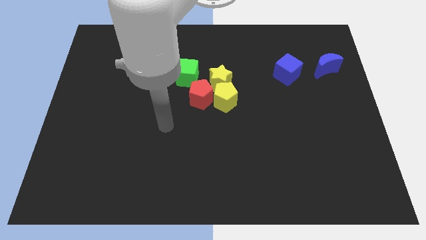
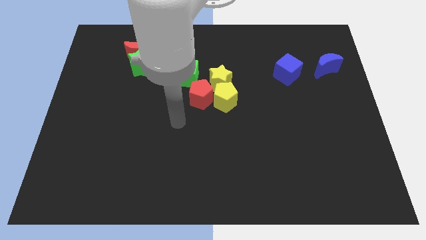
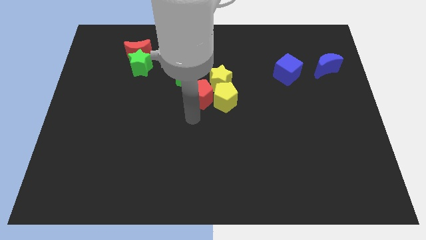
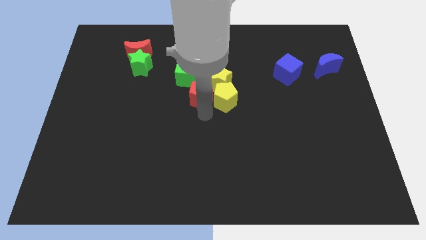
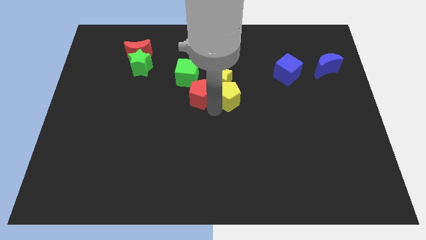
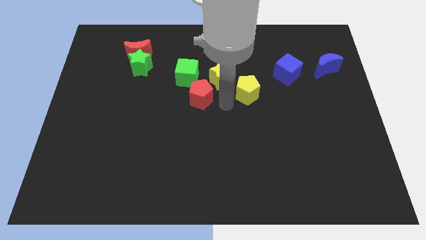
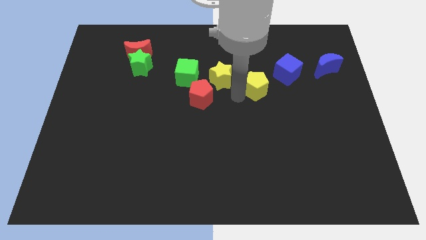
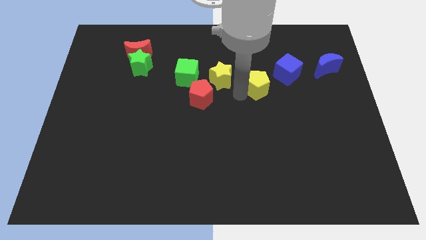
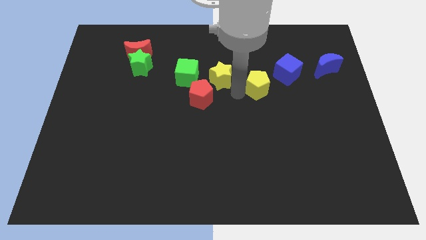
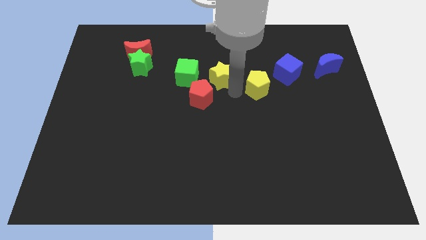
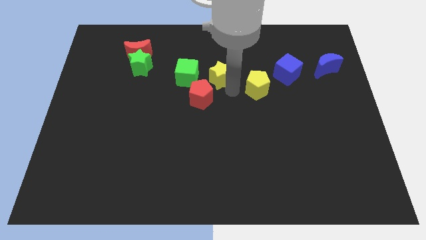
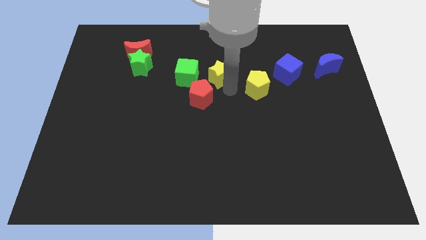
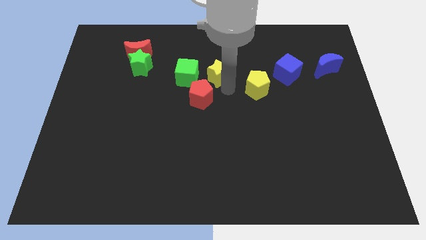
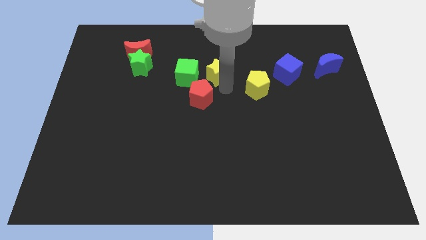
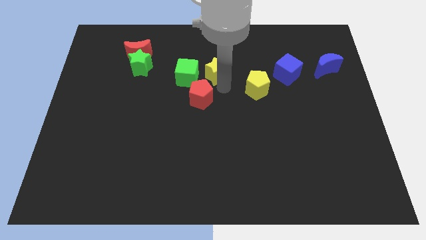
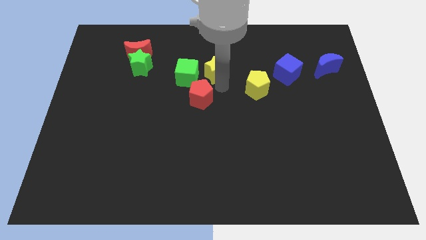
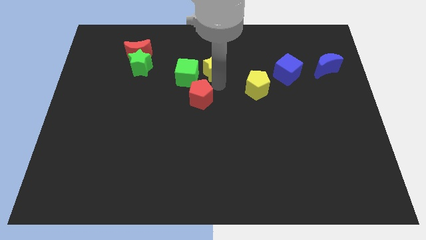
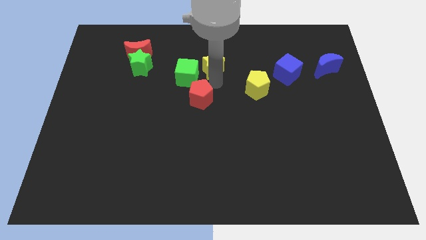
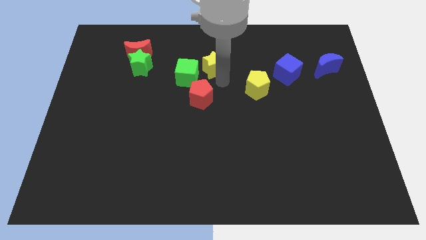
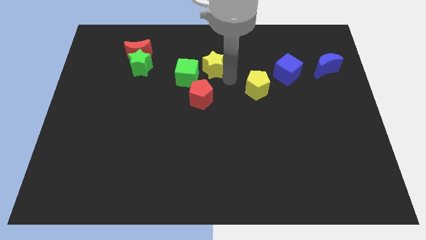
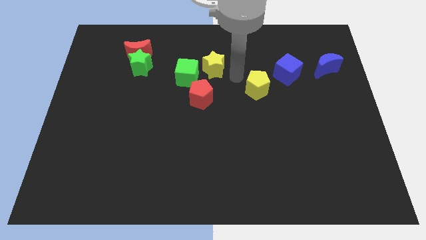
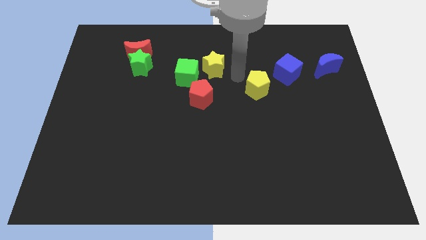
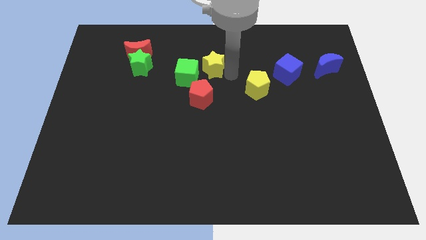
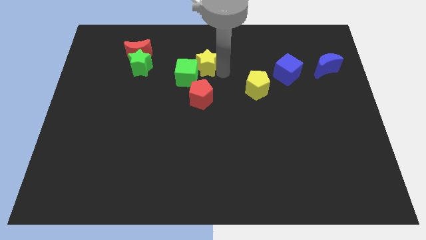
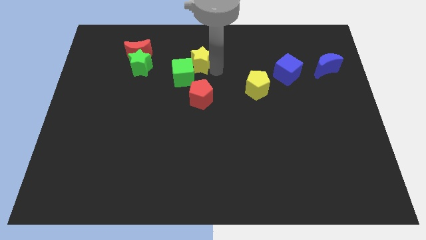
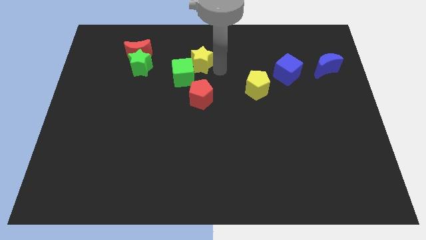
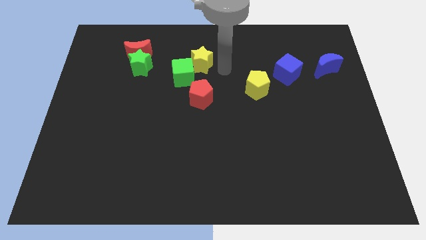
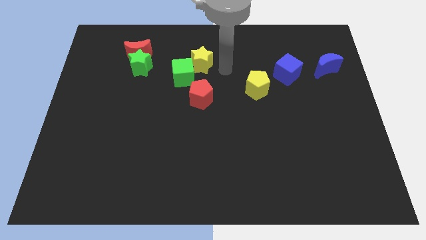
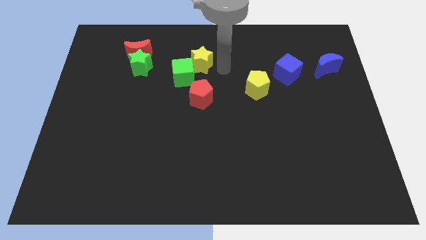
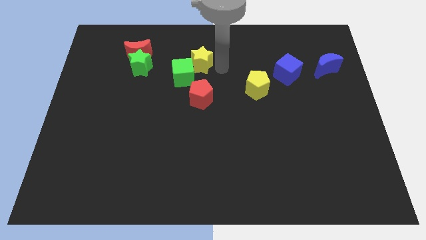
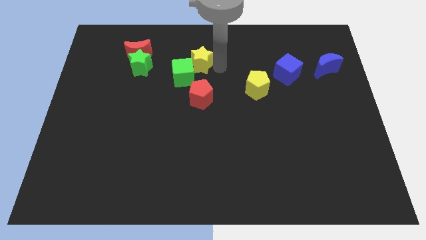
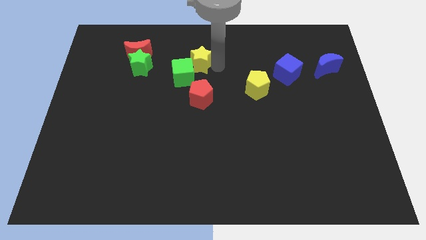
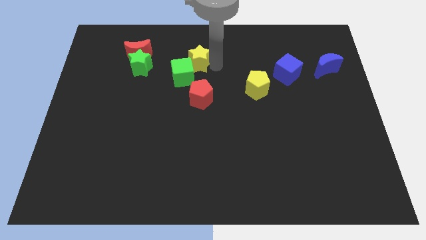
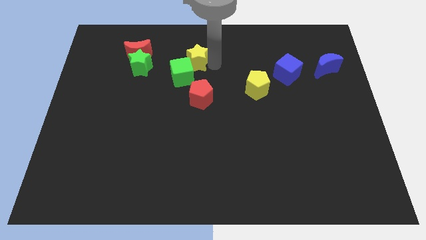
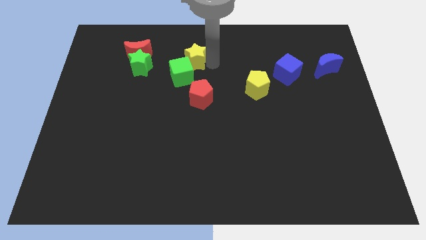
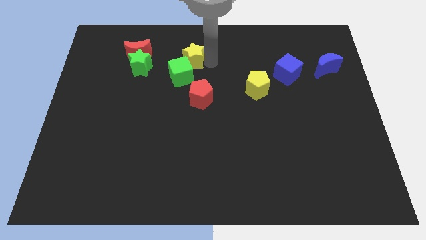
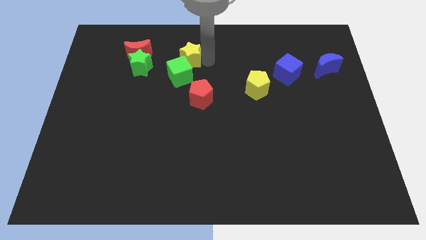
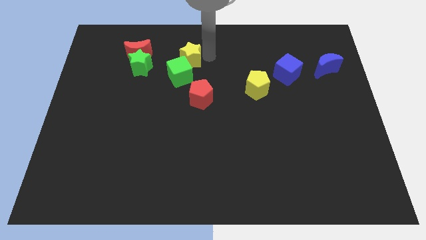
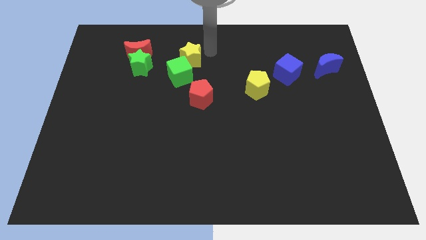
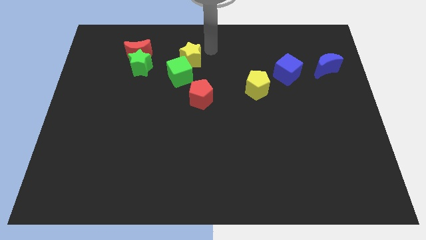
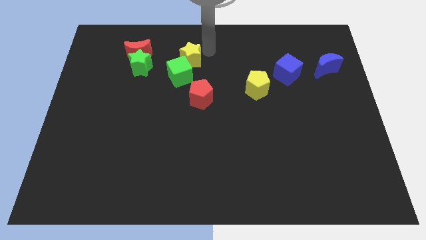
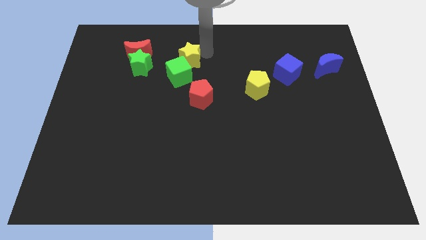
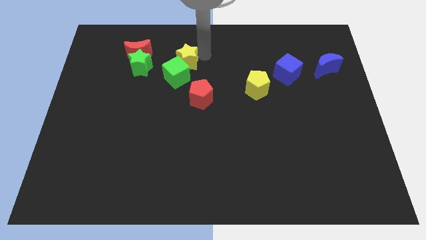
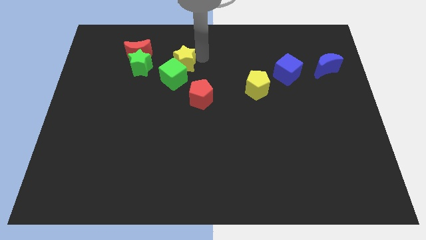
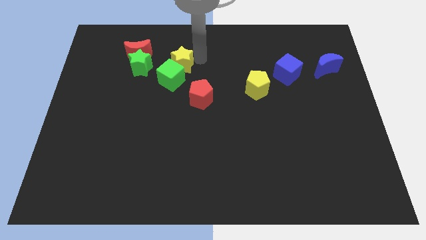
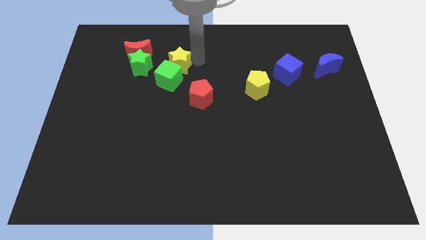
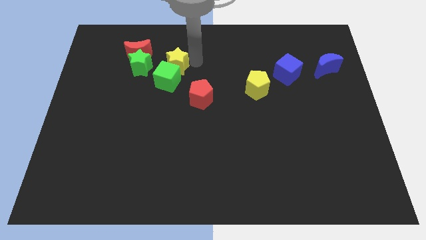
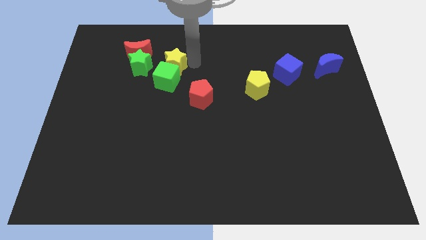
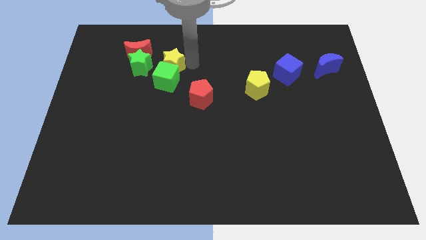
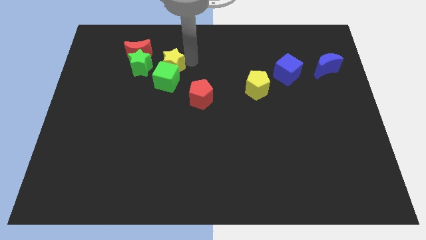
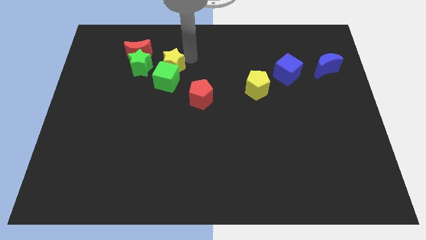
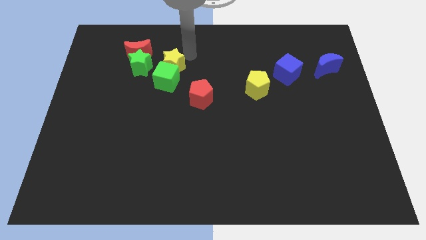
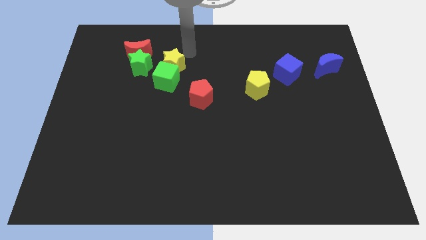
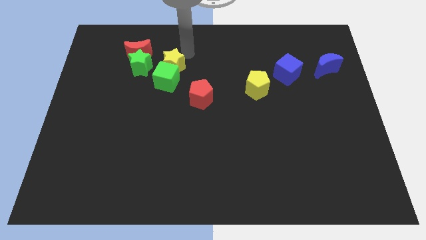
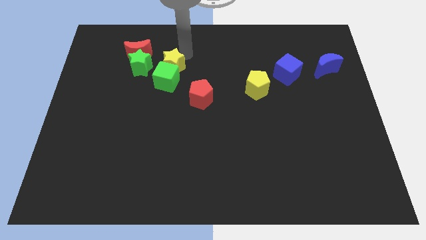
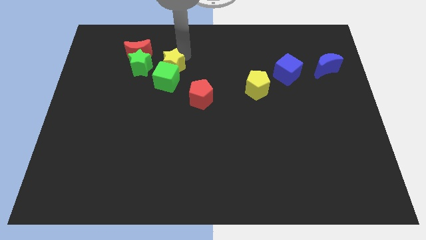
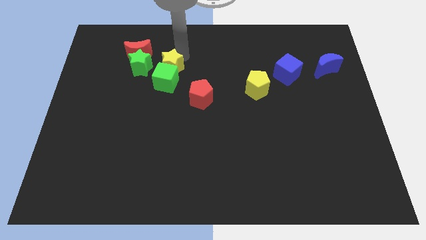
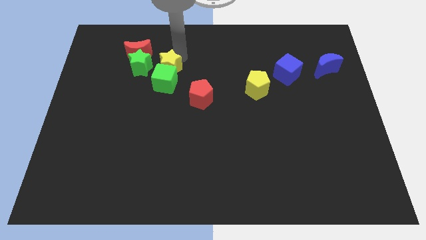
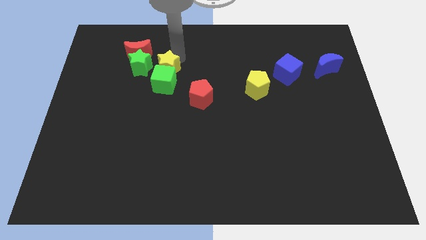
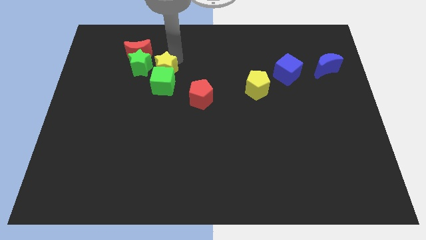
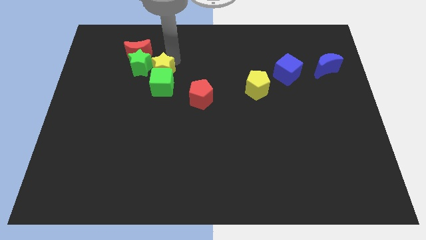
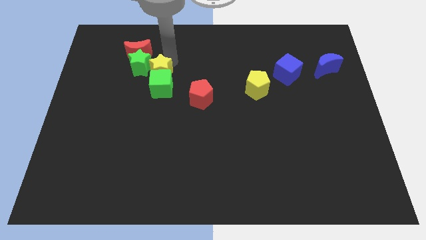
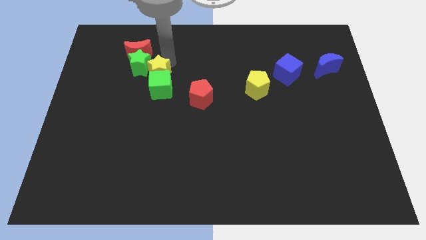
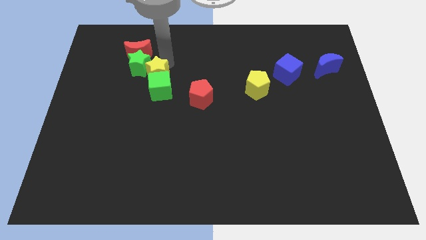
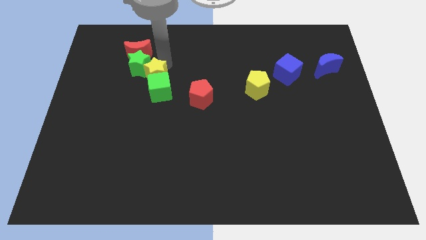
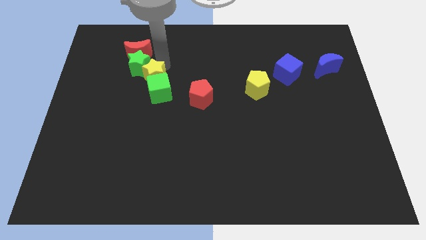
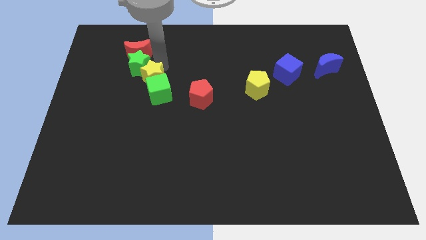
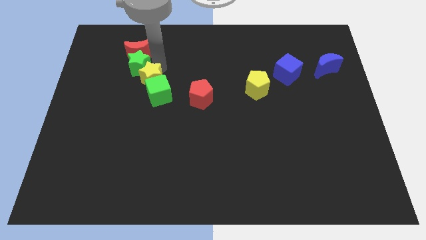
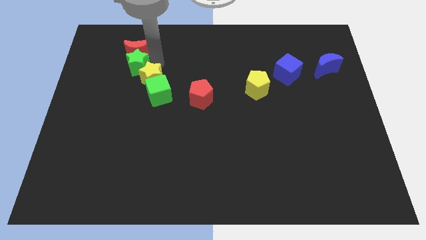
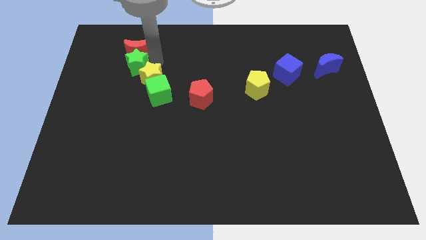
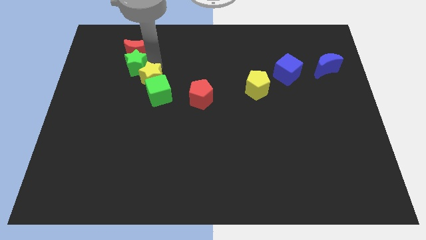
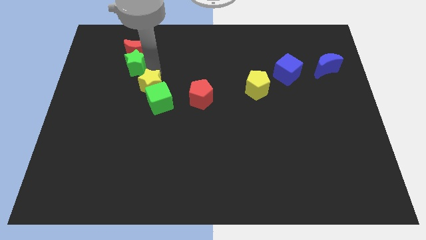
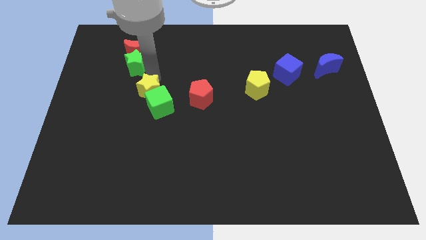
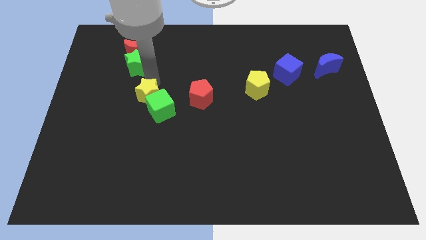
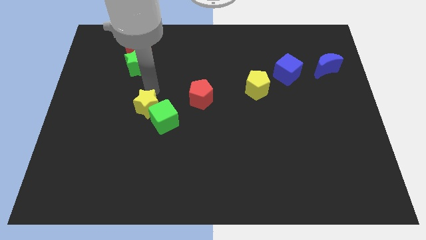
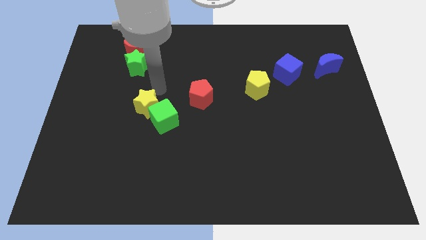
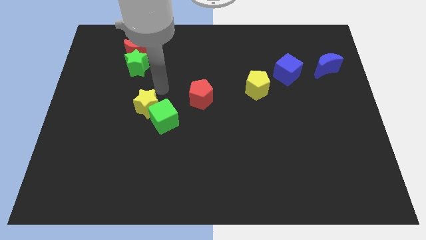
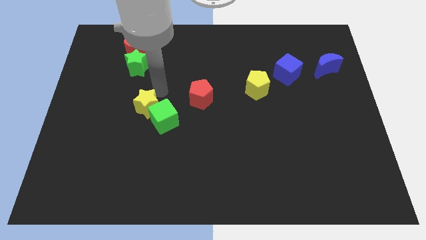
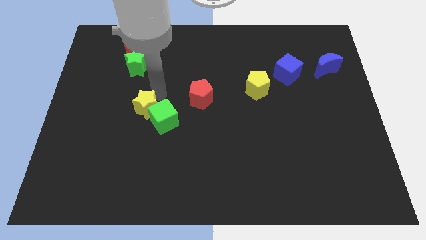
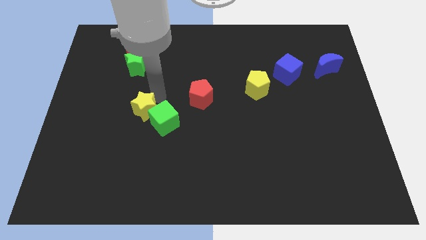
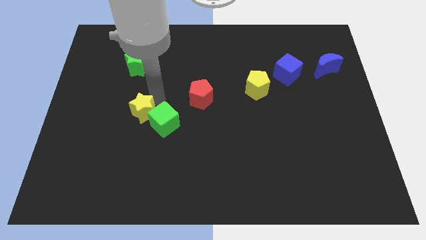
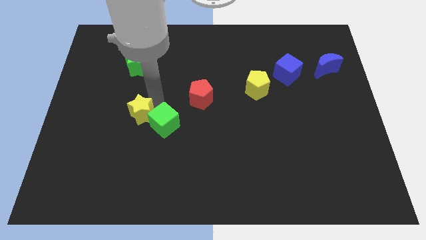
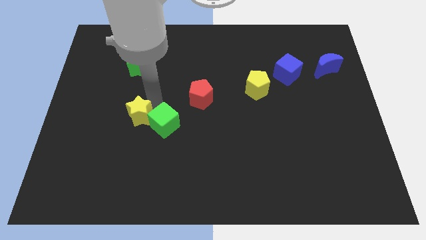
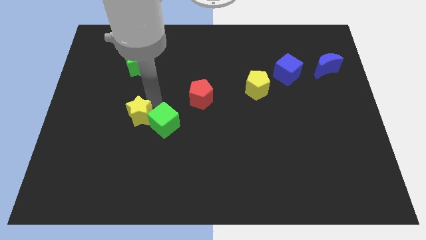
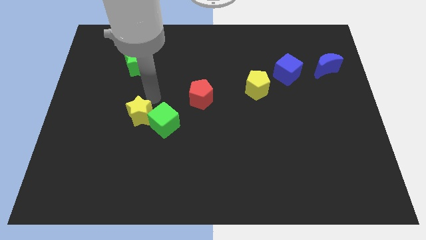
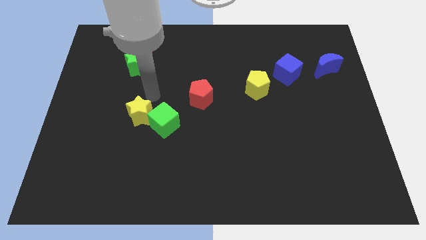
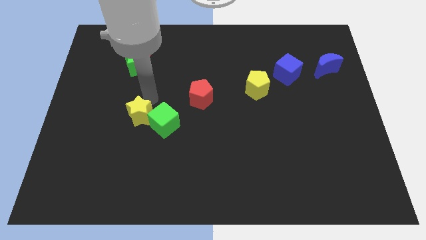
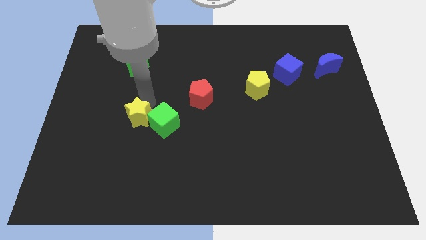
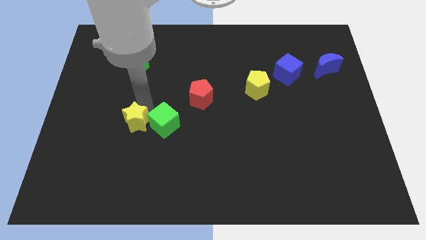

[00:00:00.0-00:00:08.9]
slide the yellow star down and then left
